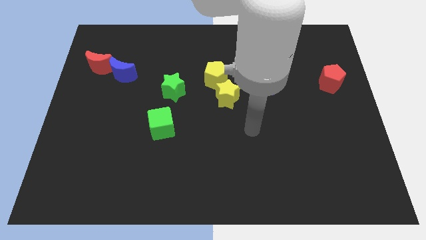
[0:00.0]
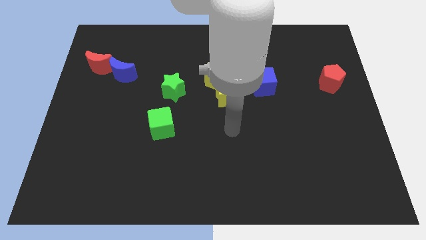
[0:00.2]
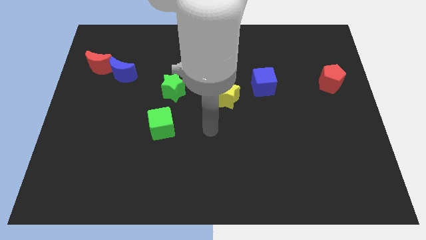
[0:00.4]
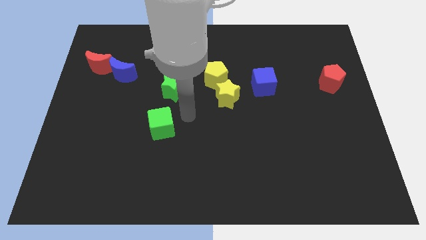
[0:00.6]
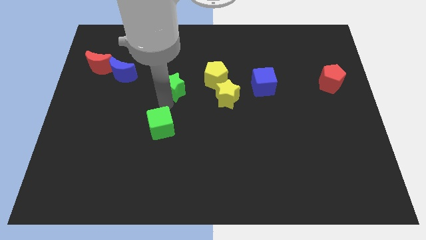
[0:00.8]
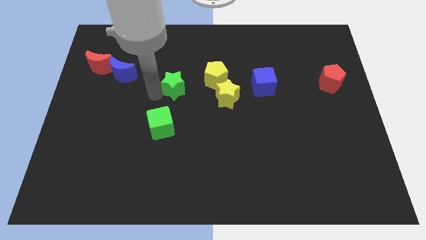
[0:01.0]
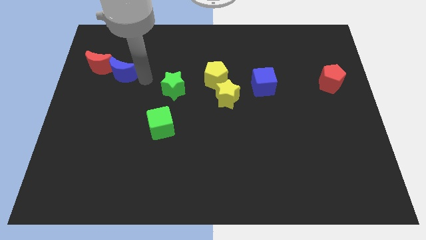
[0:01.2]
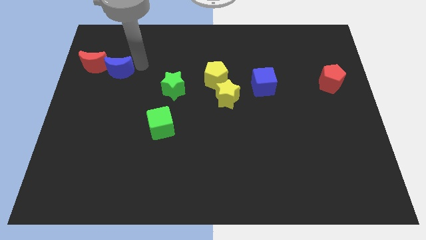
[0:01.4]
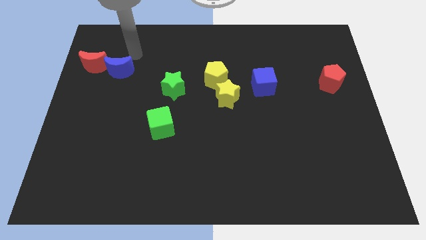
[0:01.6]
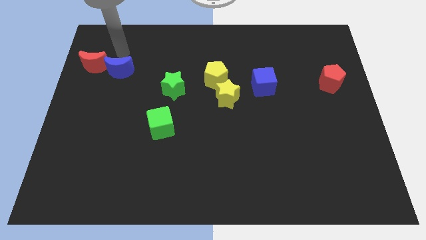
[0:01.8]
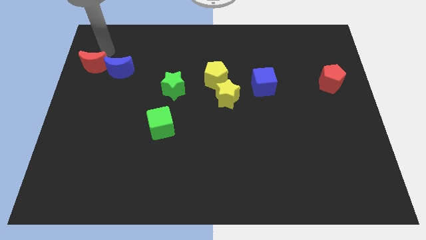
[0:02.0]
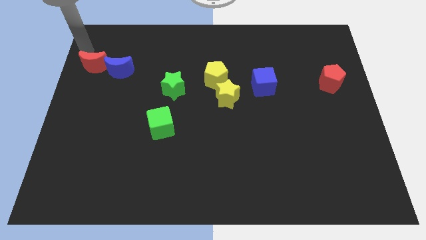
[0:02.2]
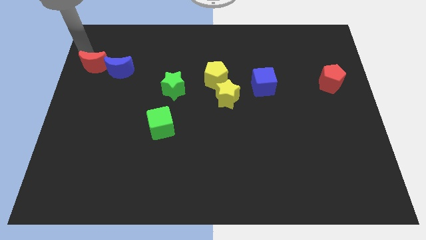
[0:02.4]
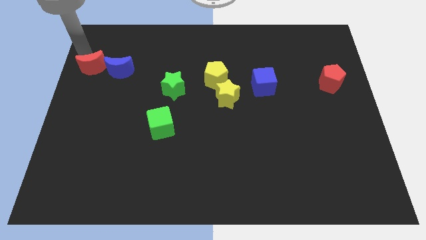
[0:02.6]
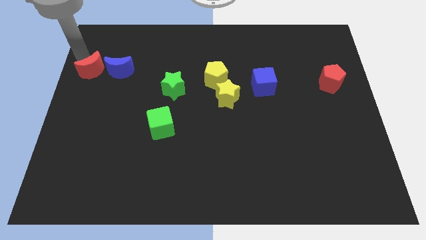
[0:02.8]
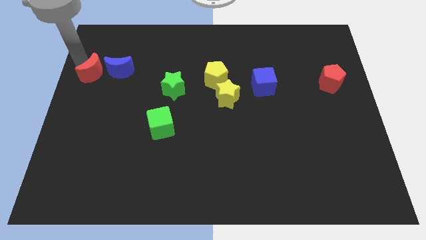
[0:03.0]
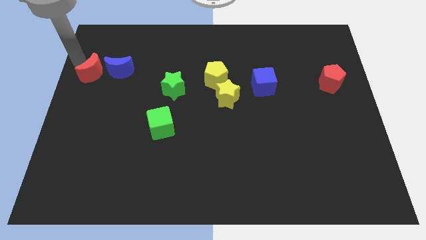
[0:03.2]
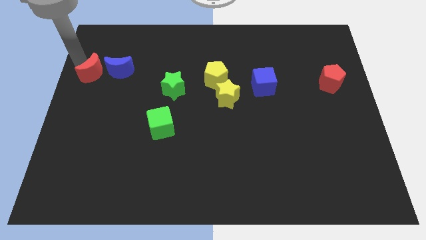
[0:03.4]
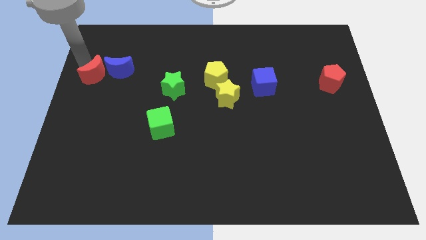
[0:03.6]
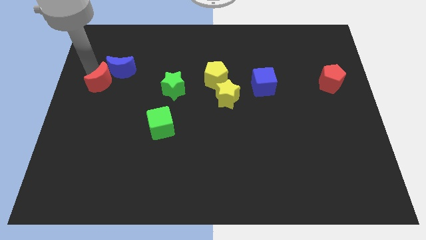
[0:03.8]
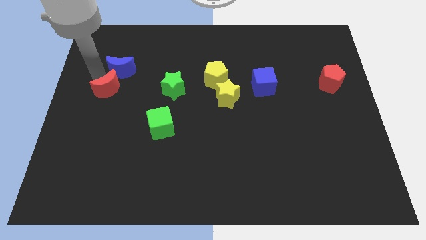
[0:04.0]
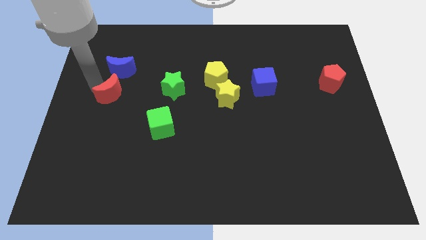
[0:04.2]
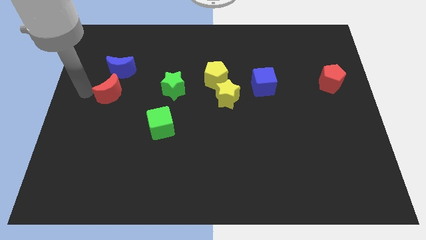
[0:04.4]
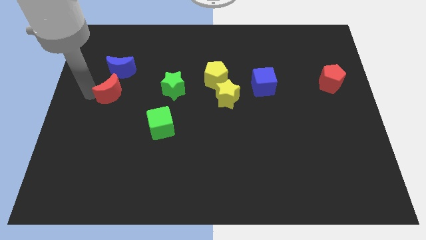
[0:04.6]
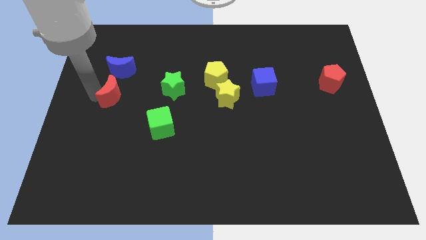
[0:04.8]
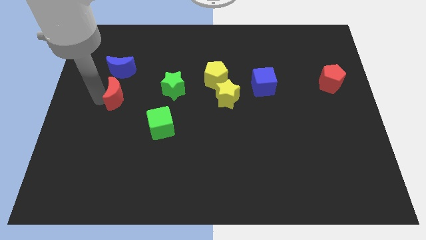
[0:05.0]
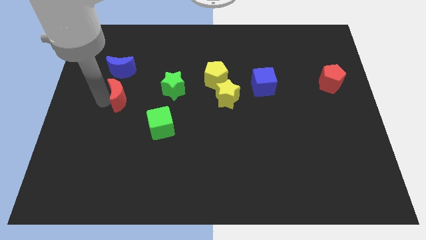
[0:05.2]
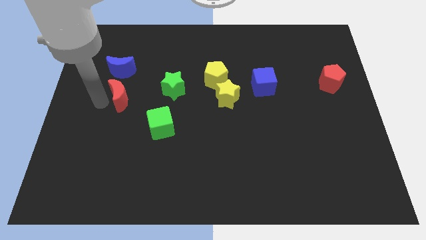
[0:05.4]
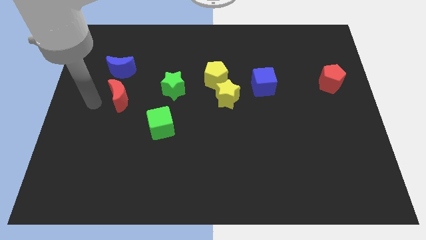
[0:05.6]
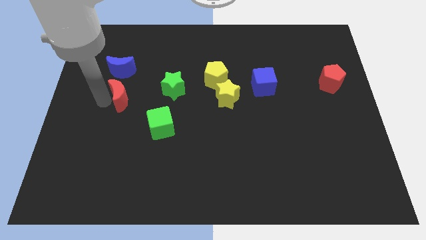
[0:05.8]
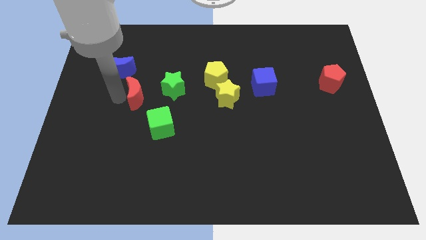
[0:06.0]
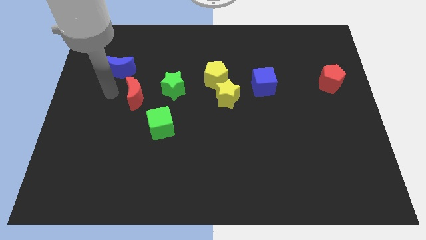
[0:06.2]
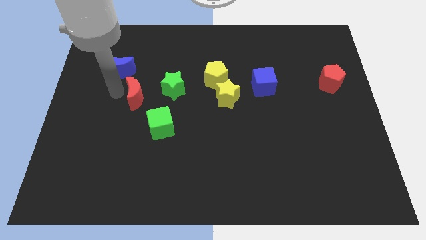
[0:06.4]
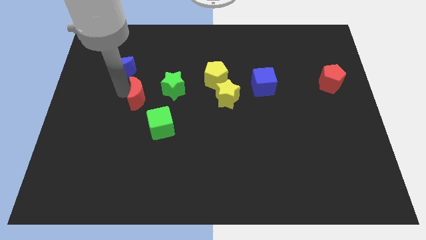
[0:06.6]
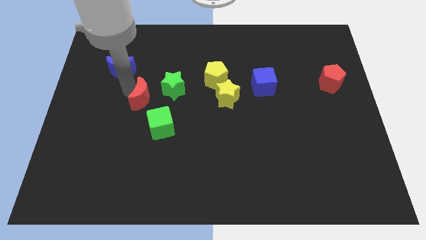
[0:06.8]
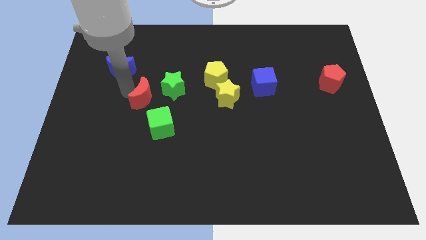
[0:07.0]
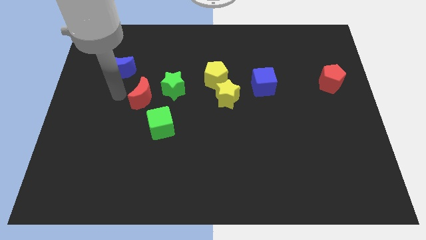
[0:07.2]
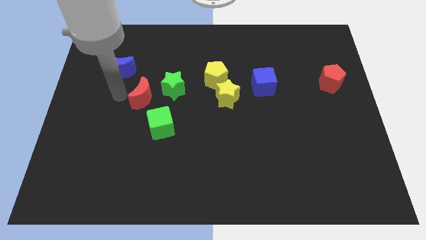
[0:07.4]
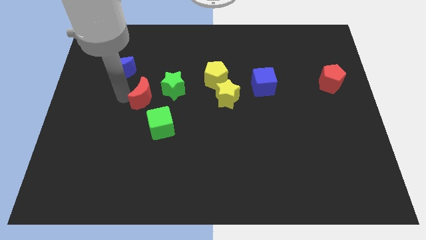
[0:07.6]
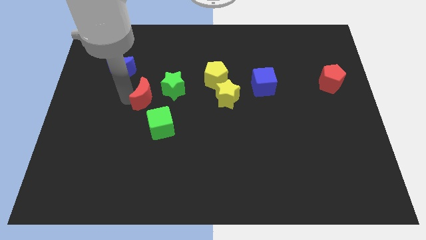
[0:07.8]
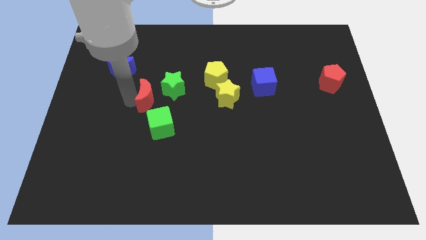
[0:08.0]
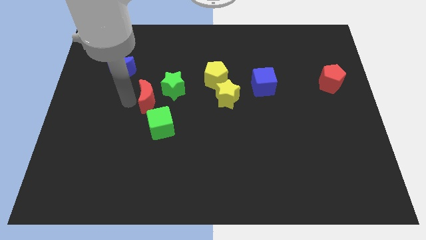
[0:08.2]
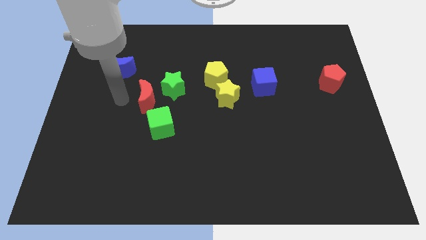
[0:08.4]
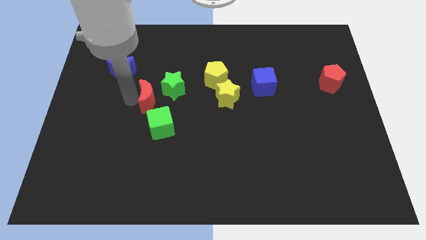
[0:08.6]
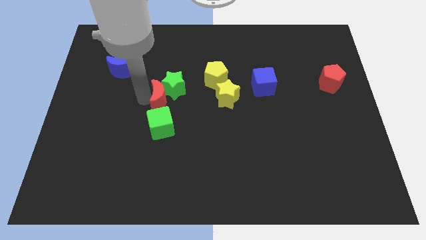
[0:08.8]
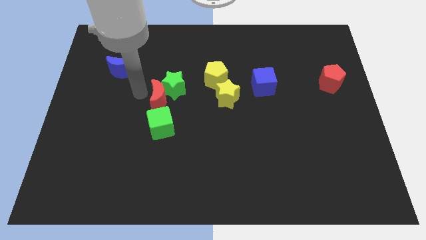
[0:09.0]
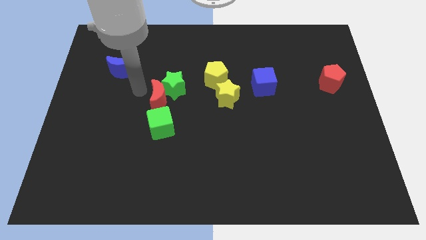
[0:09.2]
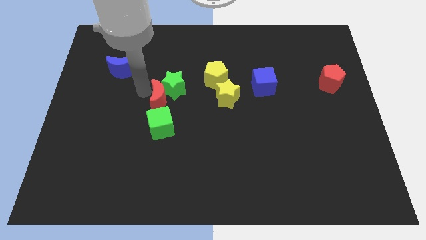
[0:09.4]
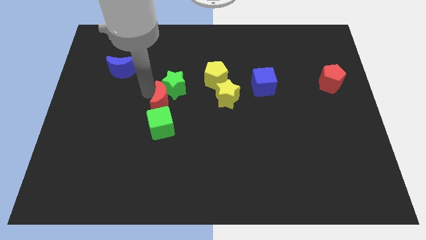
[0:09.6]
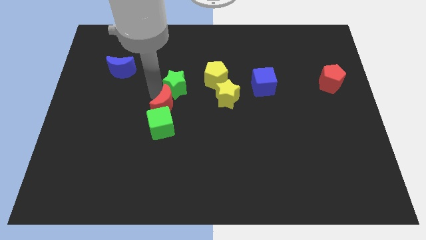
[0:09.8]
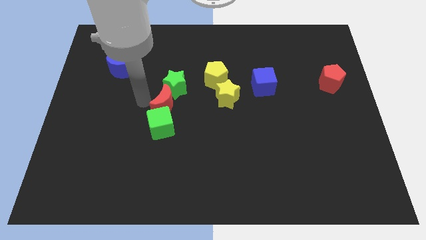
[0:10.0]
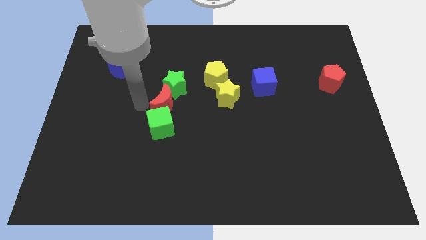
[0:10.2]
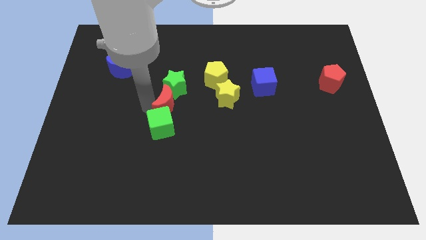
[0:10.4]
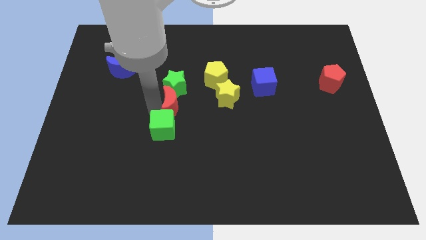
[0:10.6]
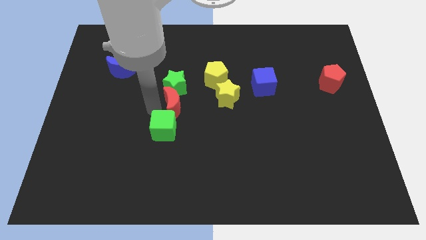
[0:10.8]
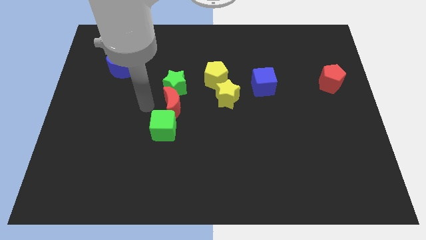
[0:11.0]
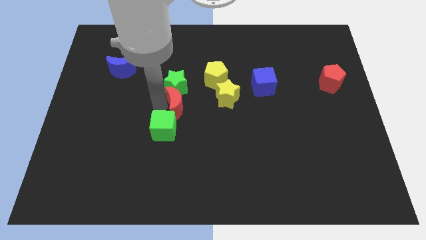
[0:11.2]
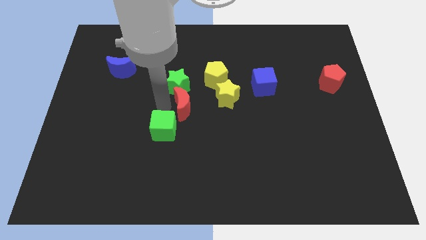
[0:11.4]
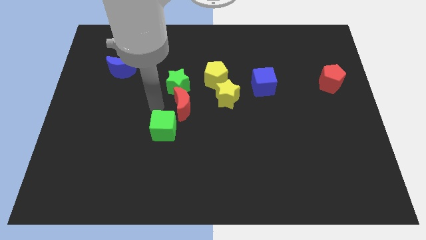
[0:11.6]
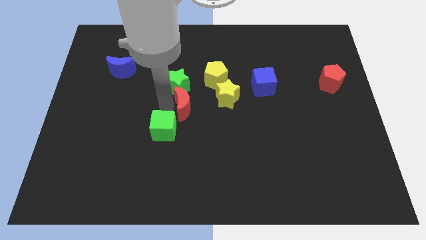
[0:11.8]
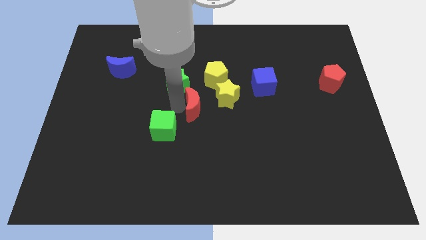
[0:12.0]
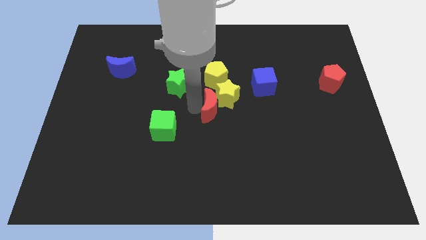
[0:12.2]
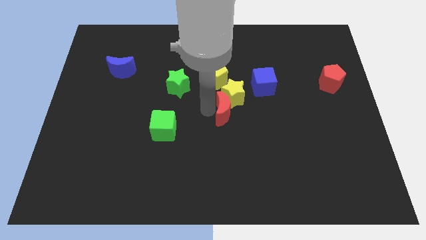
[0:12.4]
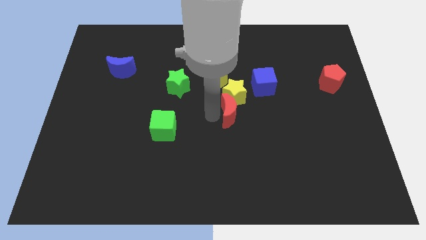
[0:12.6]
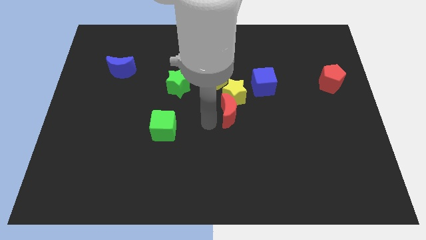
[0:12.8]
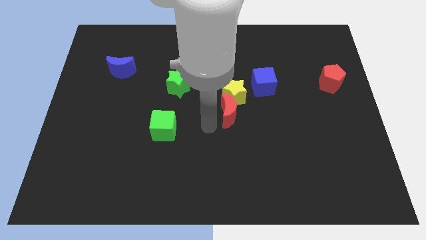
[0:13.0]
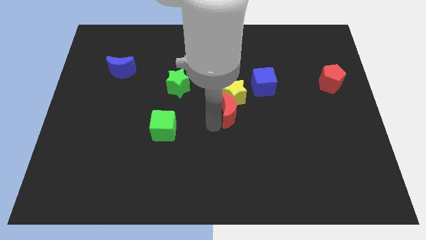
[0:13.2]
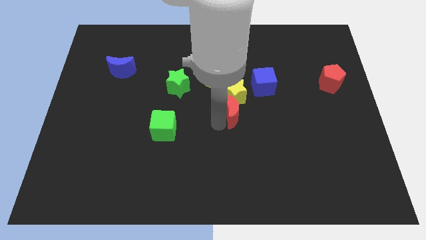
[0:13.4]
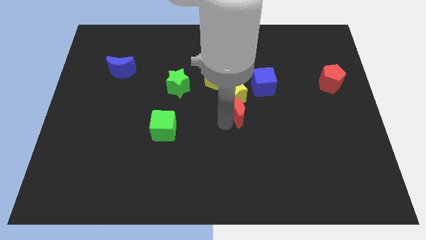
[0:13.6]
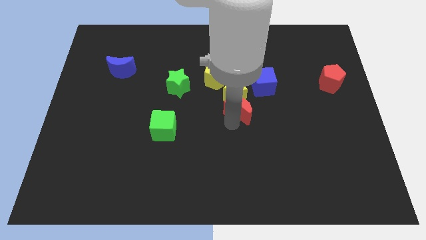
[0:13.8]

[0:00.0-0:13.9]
put the red moon to the bottom right side of the yellow pentagon
